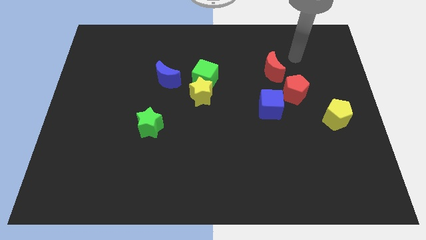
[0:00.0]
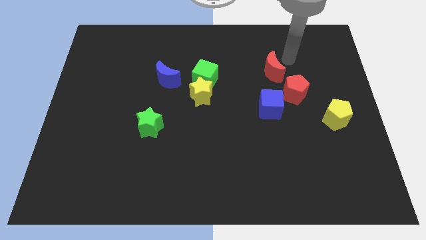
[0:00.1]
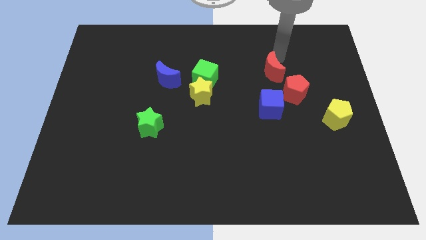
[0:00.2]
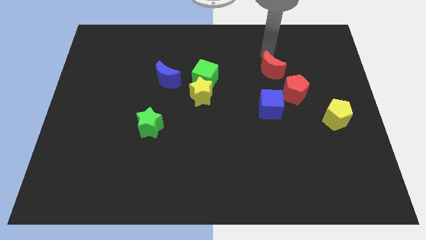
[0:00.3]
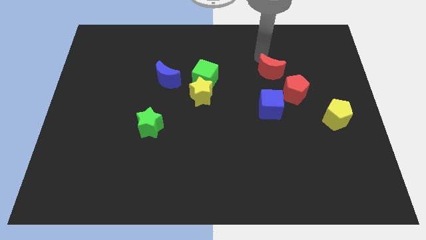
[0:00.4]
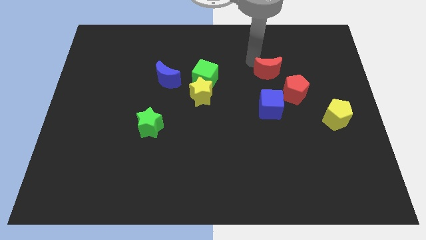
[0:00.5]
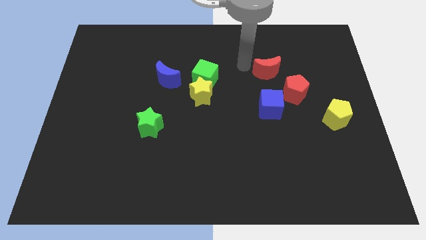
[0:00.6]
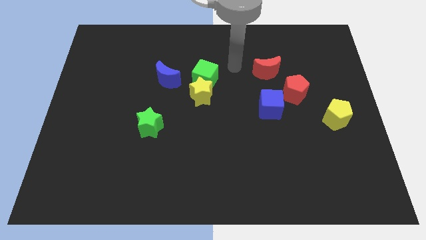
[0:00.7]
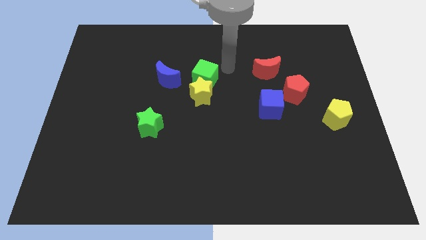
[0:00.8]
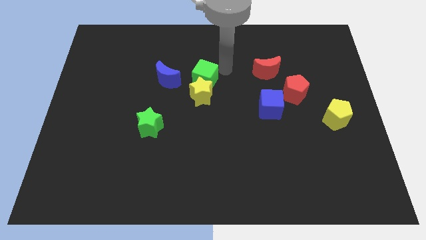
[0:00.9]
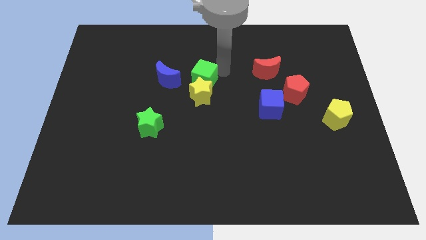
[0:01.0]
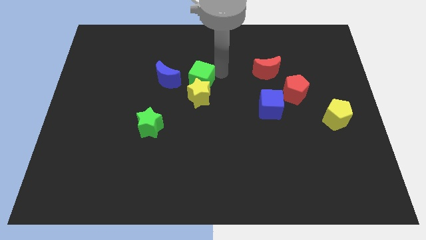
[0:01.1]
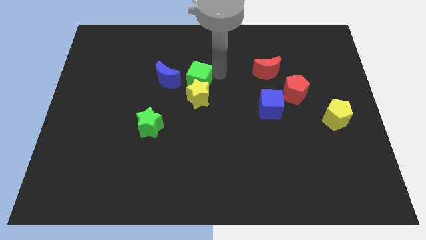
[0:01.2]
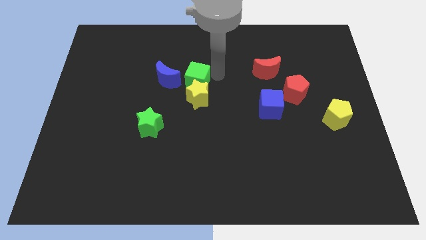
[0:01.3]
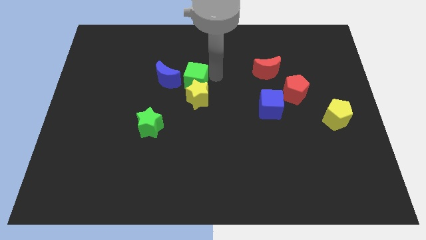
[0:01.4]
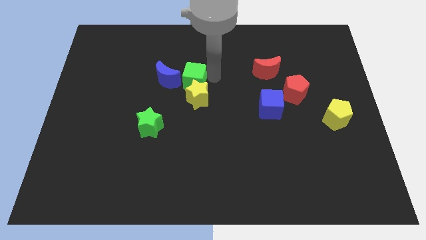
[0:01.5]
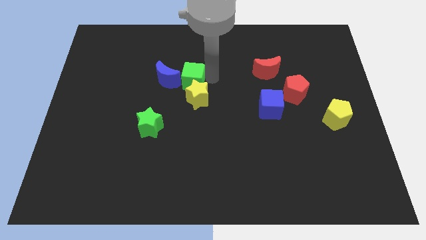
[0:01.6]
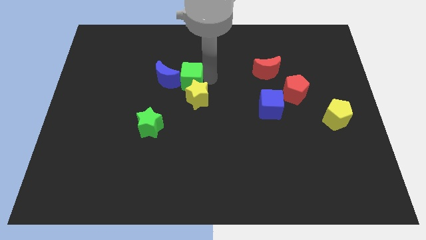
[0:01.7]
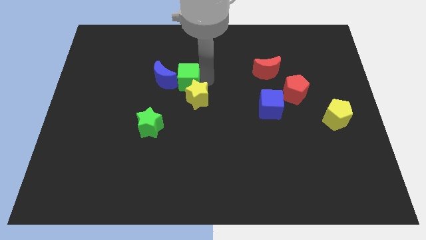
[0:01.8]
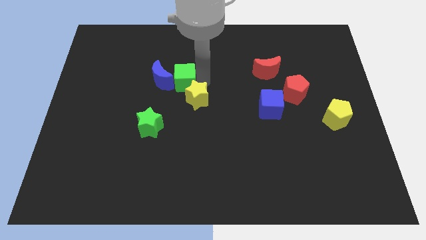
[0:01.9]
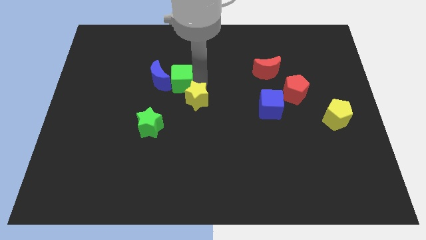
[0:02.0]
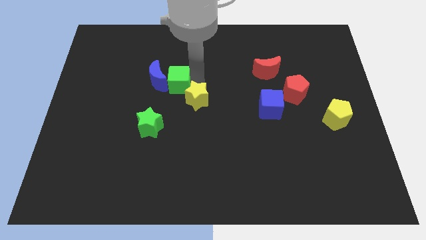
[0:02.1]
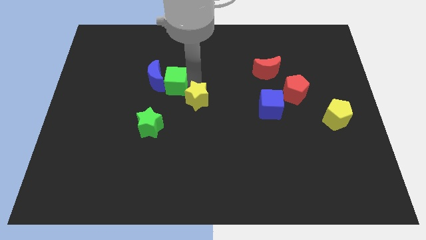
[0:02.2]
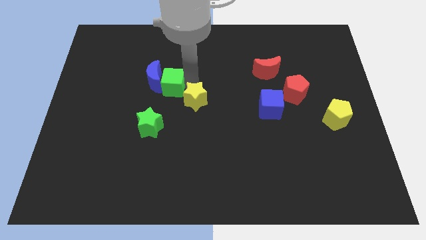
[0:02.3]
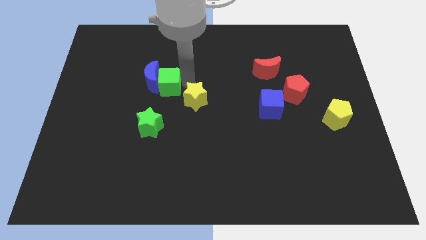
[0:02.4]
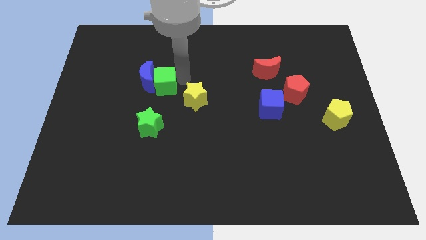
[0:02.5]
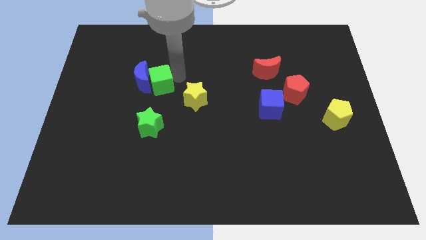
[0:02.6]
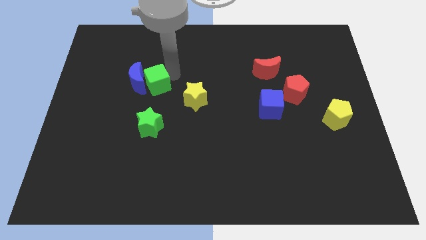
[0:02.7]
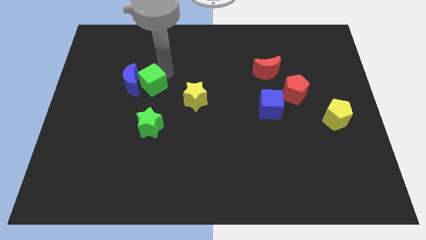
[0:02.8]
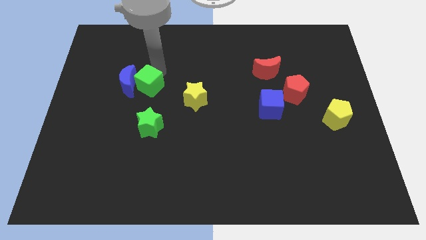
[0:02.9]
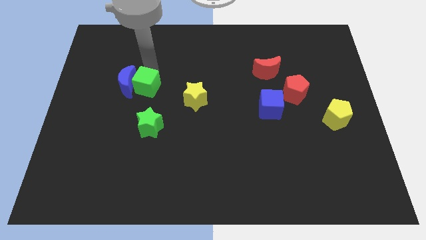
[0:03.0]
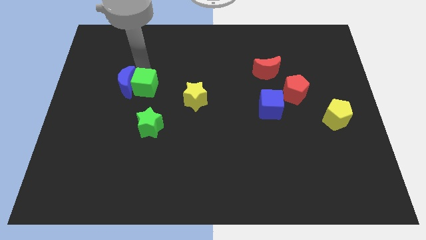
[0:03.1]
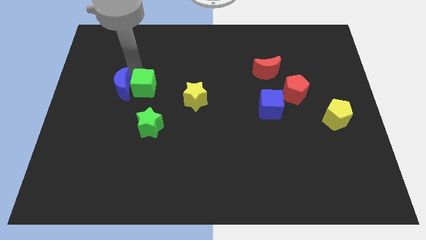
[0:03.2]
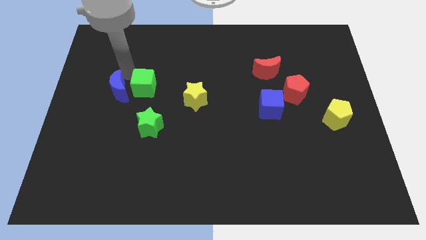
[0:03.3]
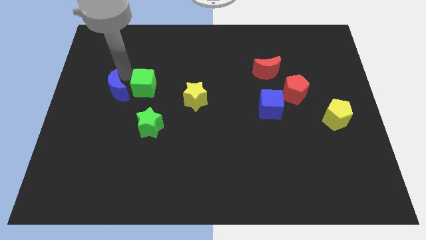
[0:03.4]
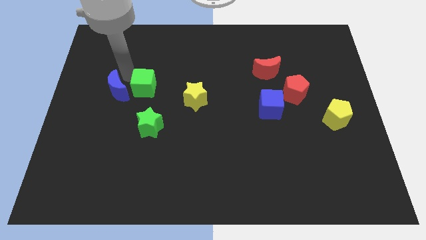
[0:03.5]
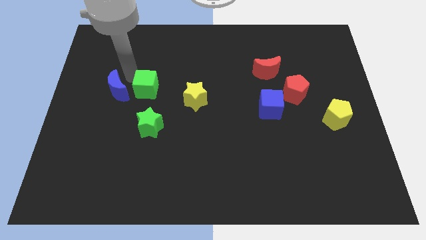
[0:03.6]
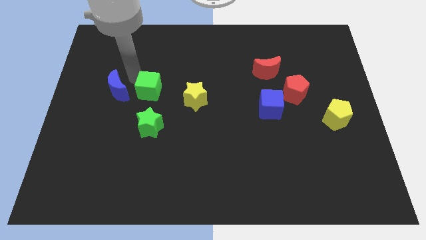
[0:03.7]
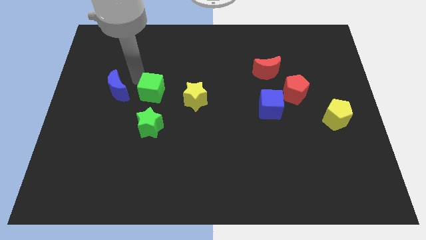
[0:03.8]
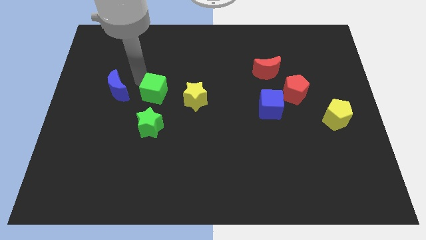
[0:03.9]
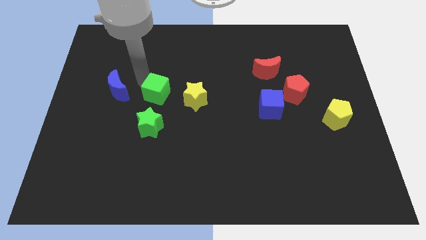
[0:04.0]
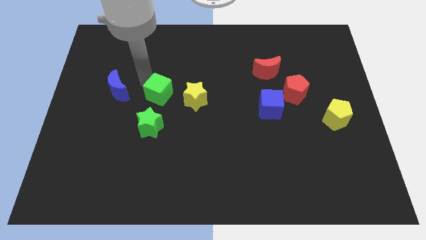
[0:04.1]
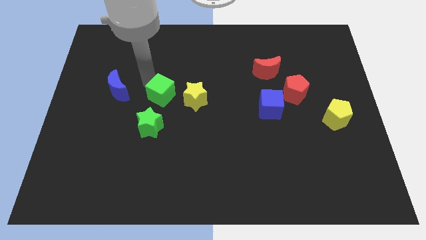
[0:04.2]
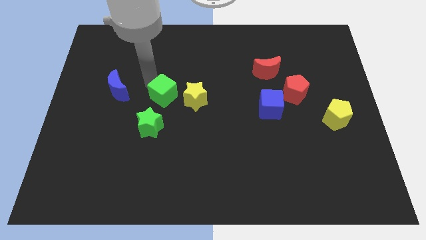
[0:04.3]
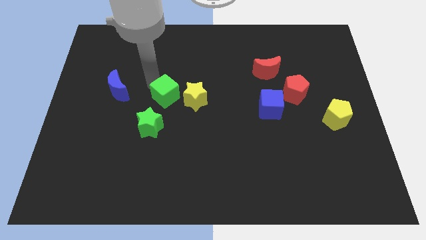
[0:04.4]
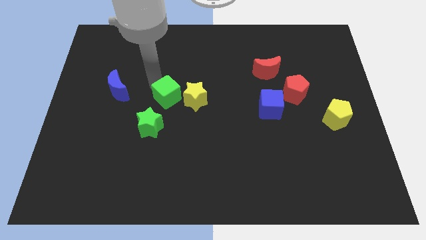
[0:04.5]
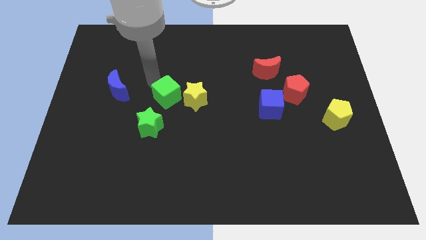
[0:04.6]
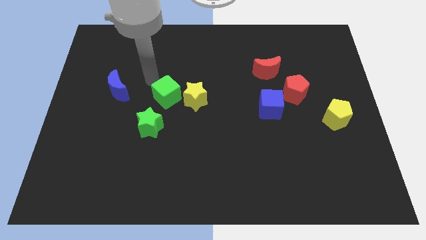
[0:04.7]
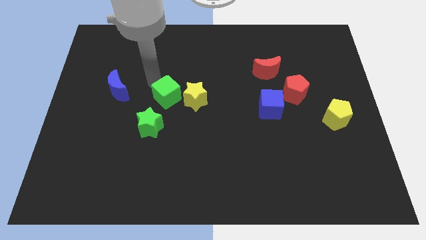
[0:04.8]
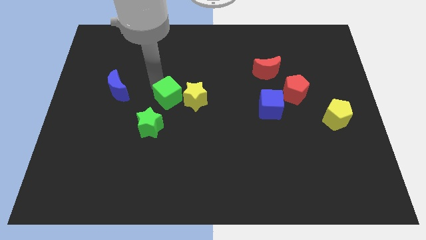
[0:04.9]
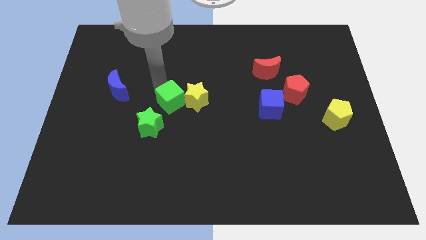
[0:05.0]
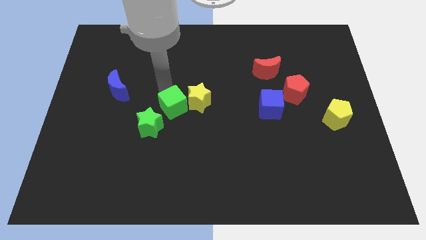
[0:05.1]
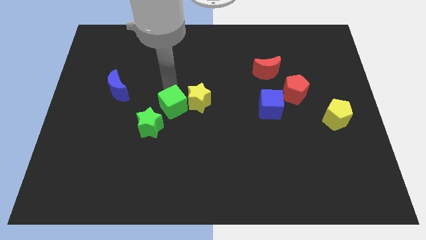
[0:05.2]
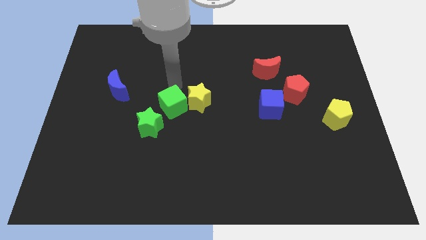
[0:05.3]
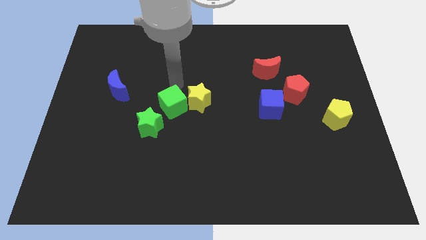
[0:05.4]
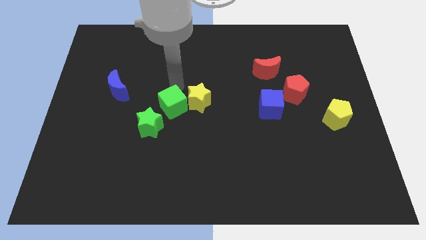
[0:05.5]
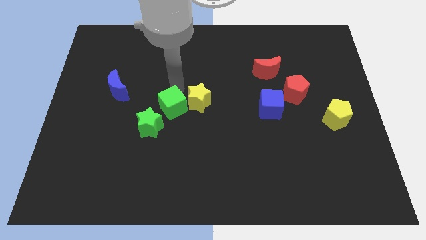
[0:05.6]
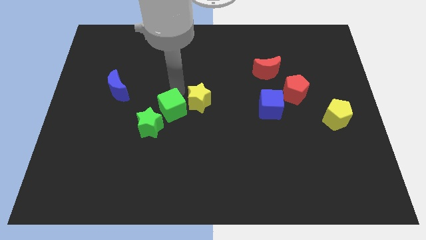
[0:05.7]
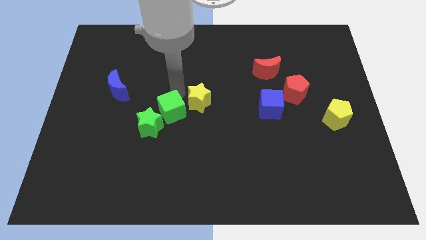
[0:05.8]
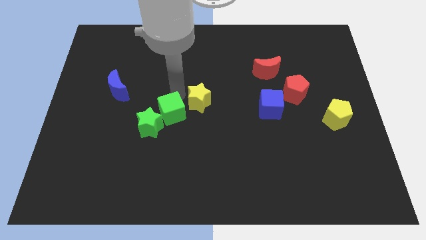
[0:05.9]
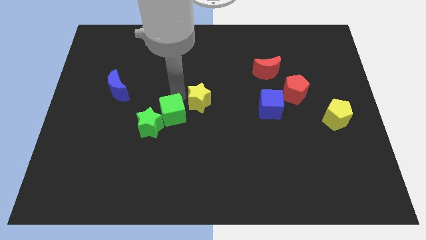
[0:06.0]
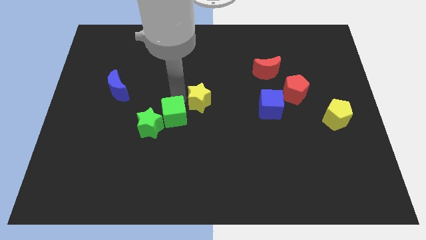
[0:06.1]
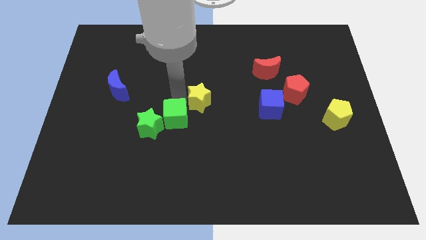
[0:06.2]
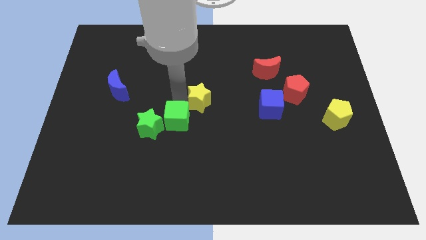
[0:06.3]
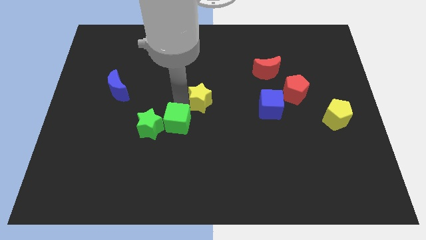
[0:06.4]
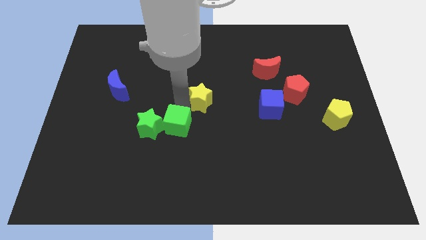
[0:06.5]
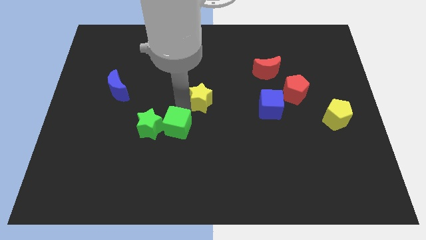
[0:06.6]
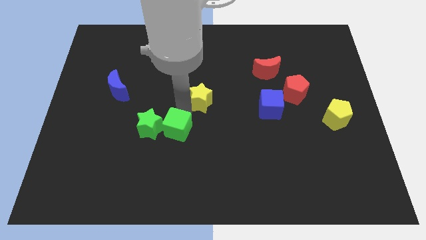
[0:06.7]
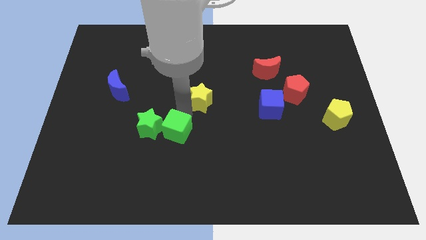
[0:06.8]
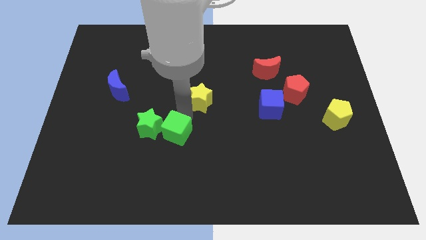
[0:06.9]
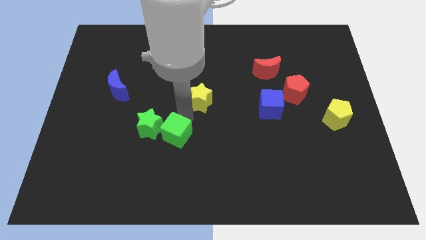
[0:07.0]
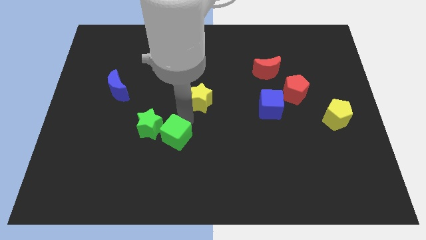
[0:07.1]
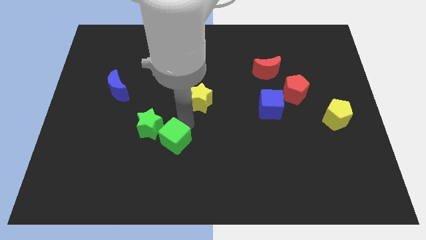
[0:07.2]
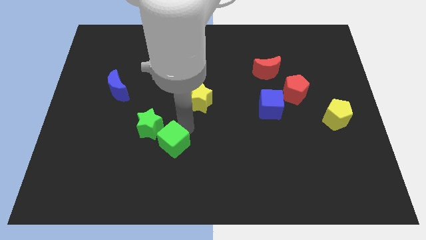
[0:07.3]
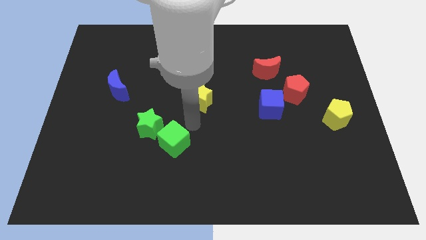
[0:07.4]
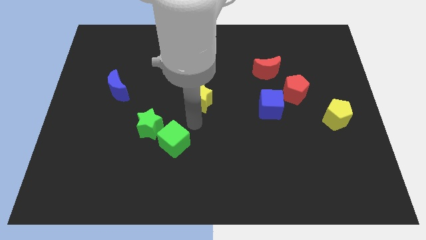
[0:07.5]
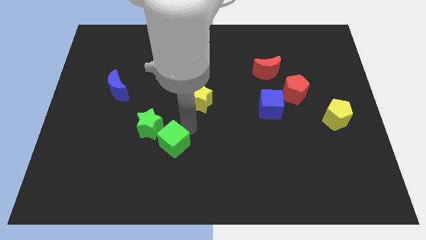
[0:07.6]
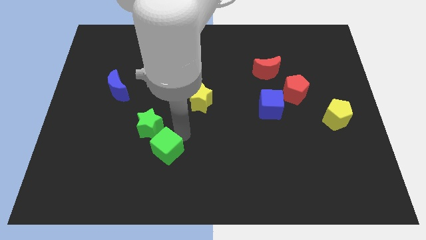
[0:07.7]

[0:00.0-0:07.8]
slide the green cube to the bottom of the green star

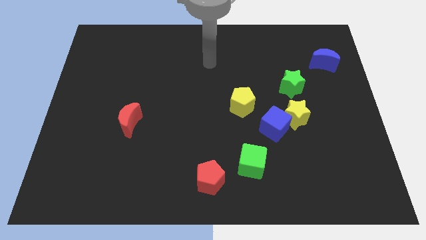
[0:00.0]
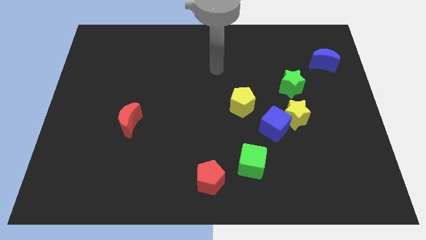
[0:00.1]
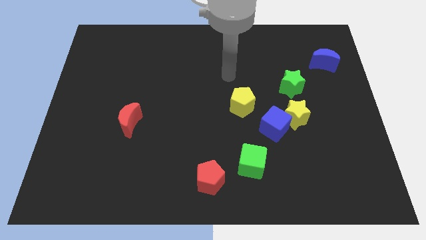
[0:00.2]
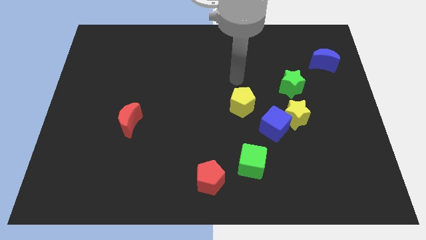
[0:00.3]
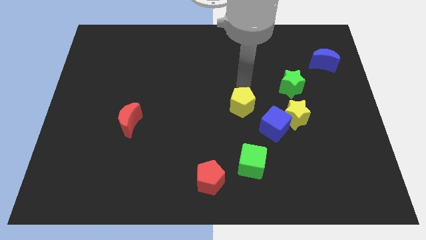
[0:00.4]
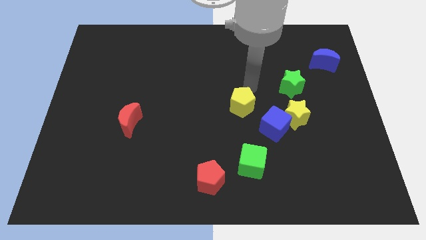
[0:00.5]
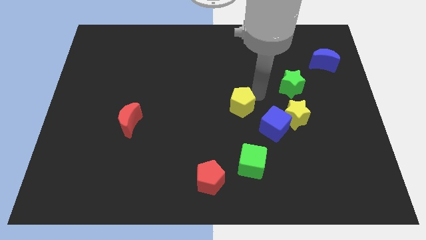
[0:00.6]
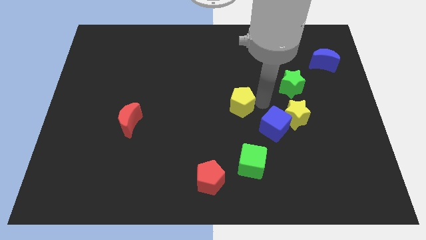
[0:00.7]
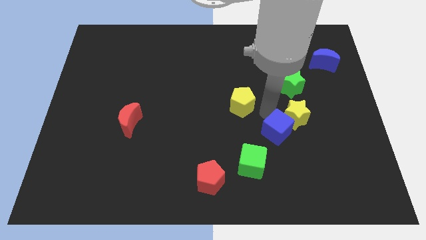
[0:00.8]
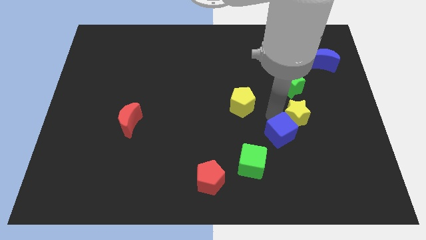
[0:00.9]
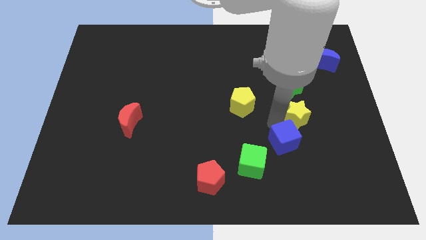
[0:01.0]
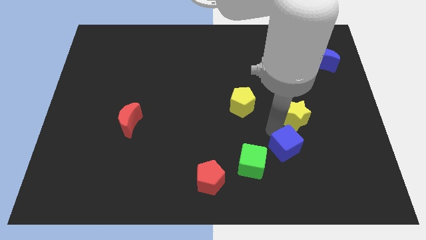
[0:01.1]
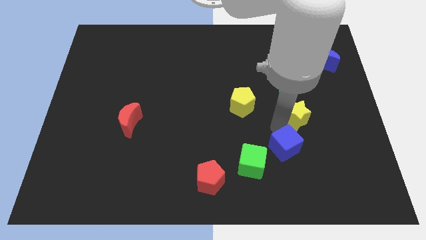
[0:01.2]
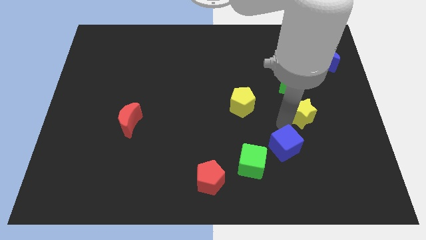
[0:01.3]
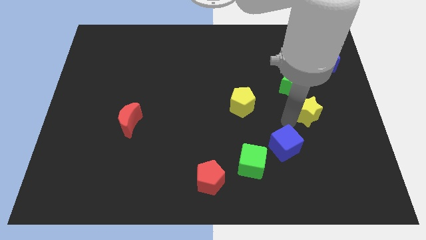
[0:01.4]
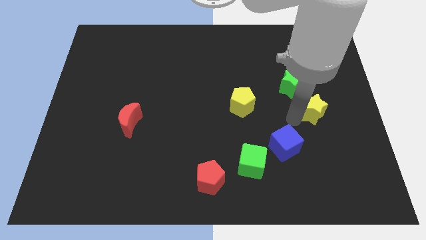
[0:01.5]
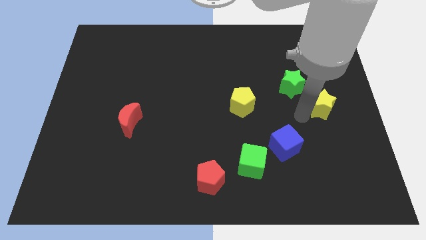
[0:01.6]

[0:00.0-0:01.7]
put the yellow star to the bottom of the blue moon
